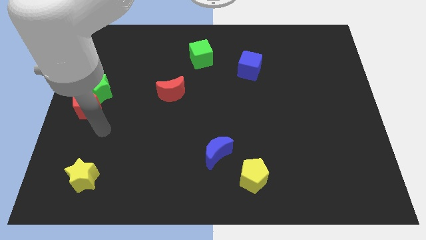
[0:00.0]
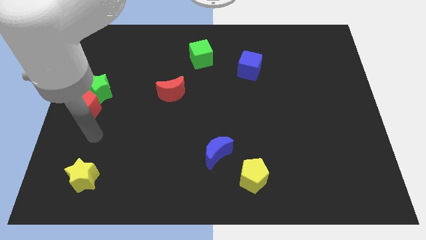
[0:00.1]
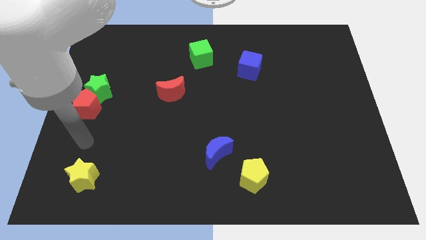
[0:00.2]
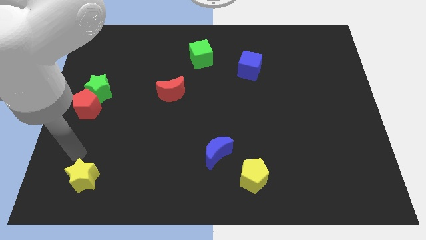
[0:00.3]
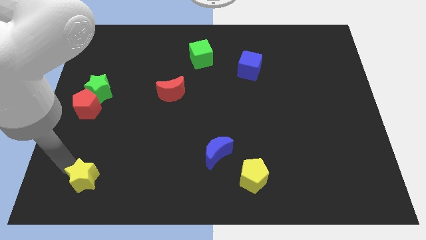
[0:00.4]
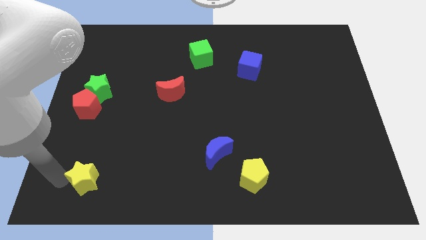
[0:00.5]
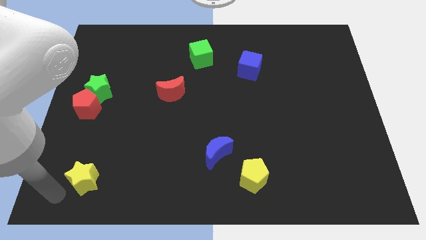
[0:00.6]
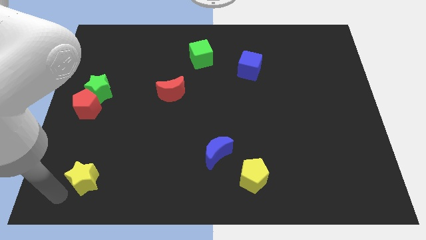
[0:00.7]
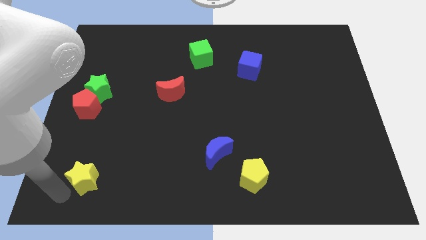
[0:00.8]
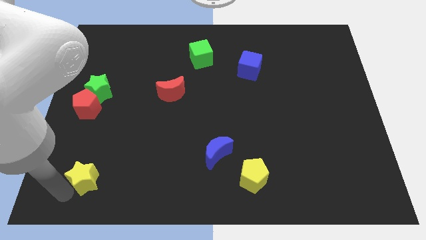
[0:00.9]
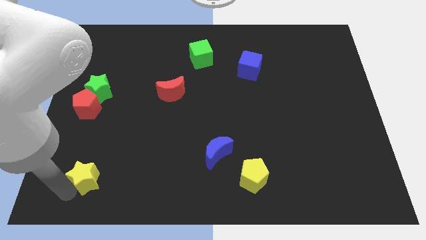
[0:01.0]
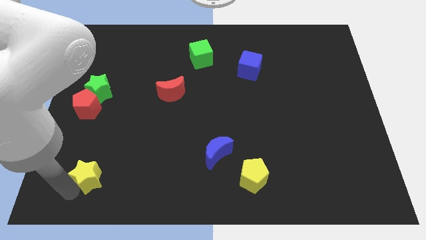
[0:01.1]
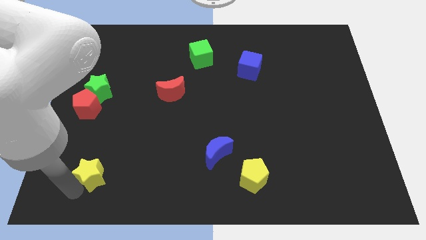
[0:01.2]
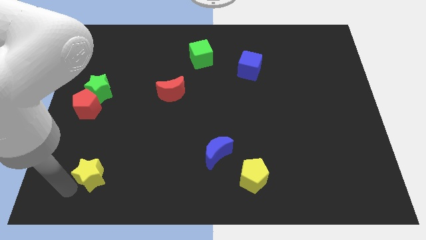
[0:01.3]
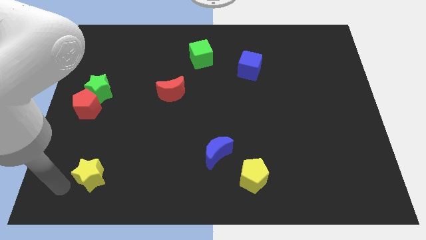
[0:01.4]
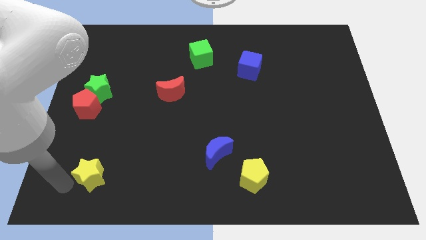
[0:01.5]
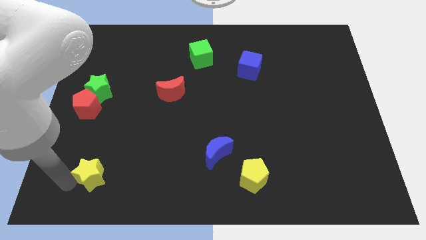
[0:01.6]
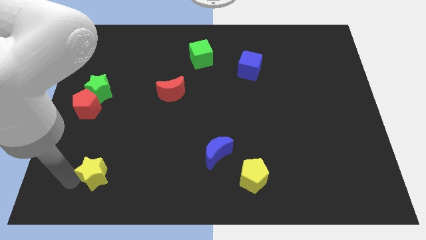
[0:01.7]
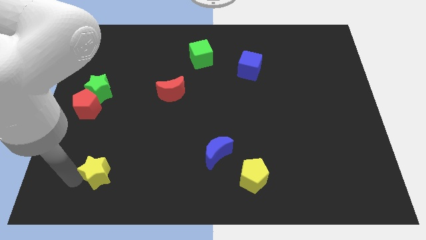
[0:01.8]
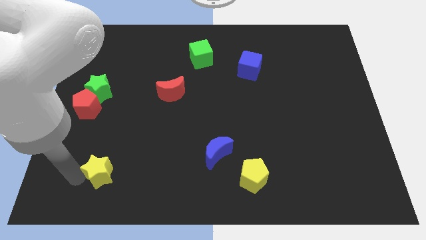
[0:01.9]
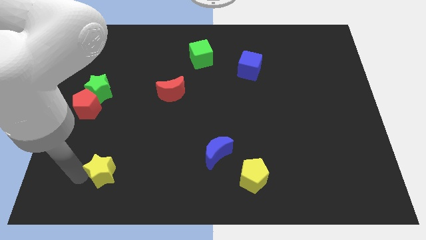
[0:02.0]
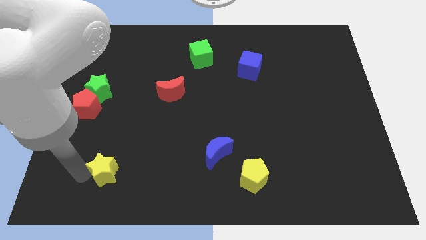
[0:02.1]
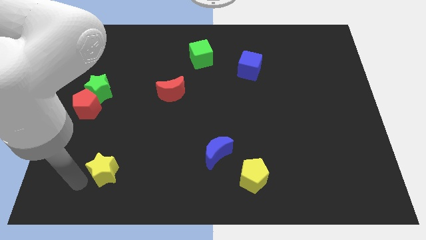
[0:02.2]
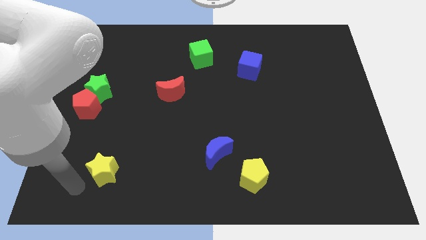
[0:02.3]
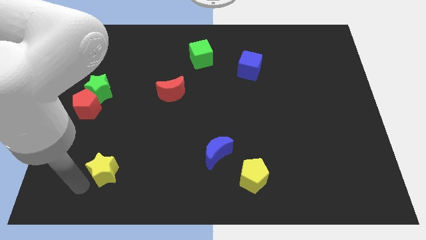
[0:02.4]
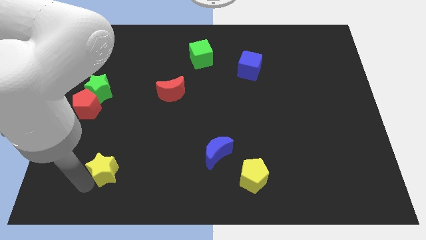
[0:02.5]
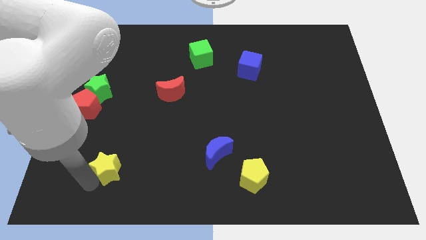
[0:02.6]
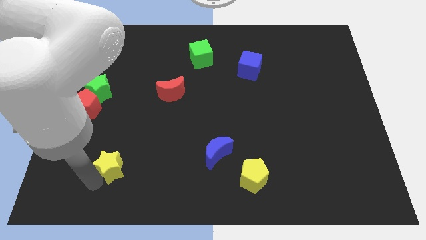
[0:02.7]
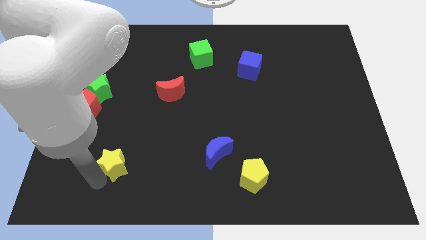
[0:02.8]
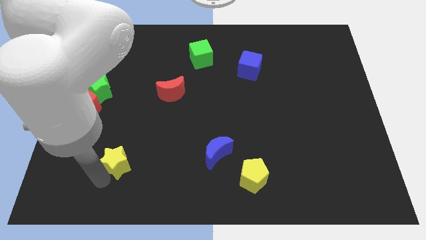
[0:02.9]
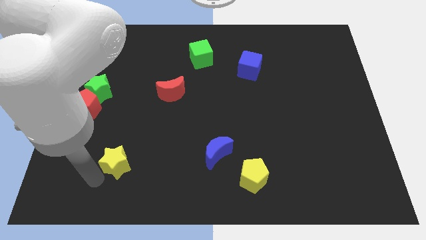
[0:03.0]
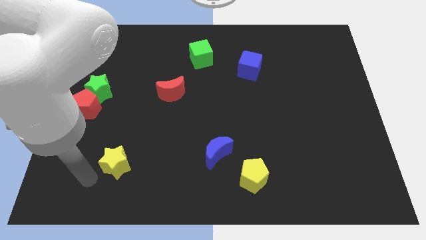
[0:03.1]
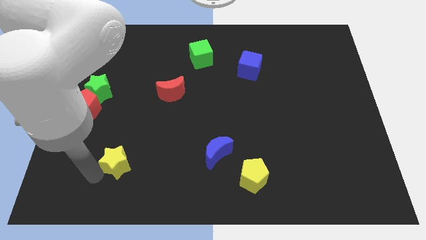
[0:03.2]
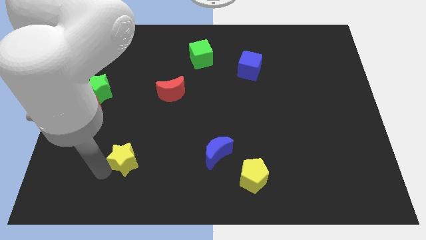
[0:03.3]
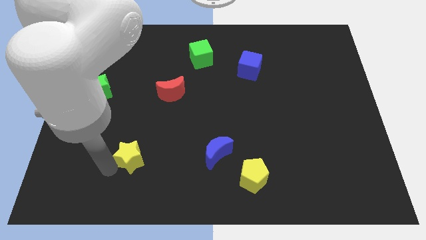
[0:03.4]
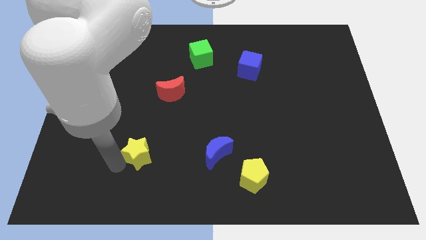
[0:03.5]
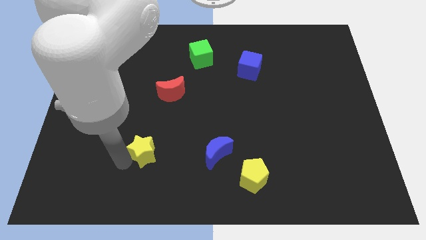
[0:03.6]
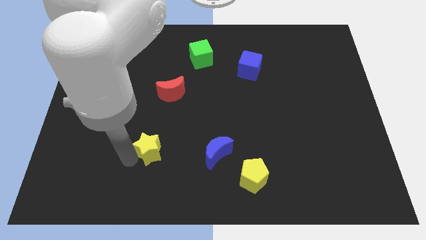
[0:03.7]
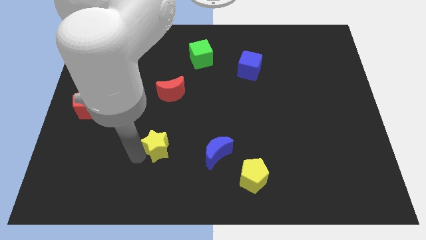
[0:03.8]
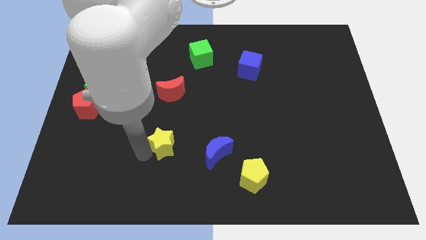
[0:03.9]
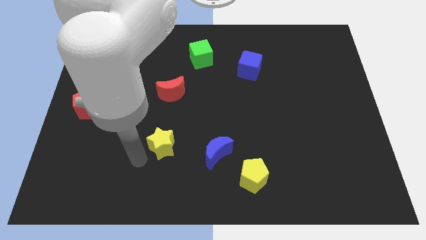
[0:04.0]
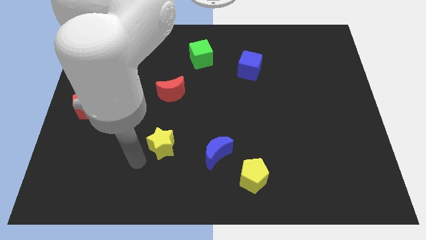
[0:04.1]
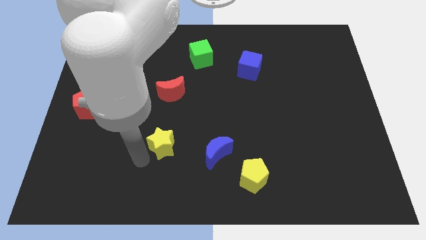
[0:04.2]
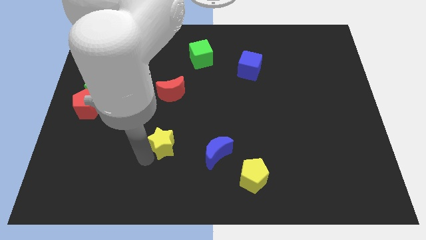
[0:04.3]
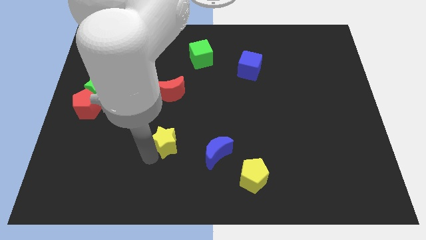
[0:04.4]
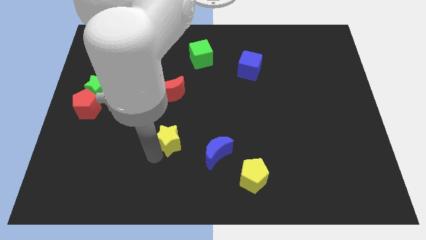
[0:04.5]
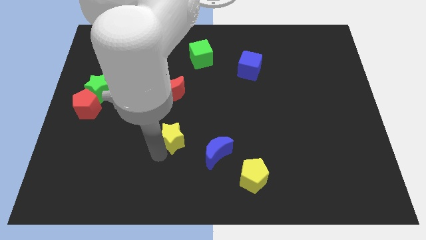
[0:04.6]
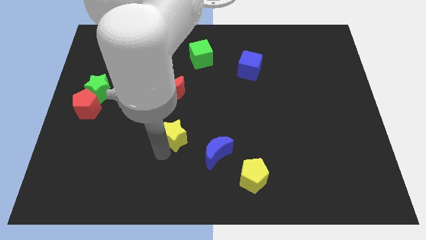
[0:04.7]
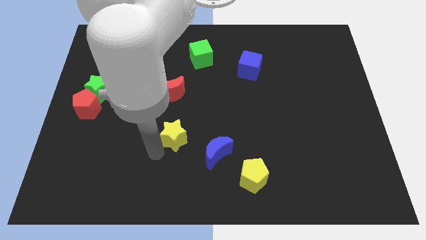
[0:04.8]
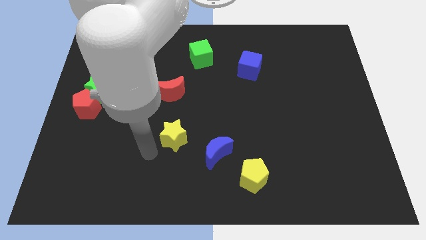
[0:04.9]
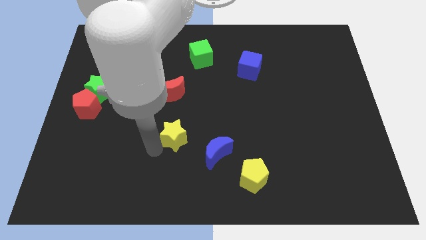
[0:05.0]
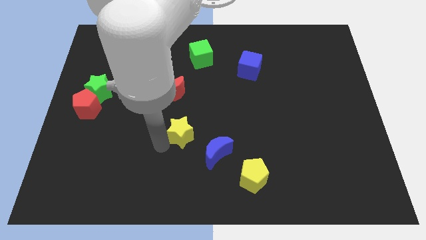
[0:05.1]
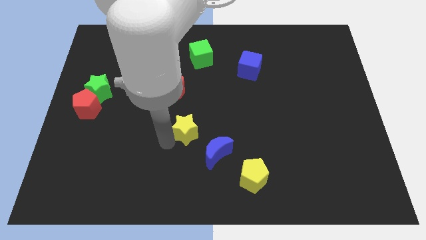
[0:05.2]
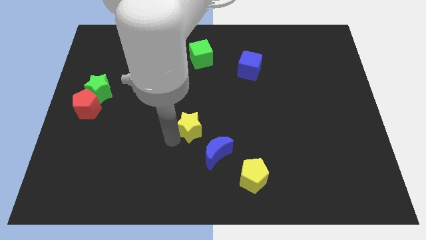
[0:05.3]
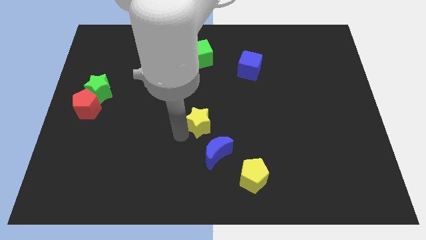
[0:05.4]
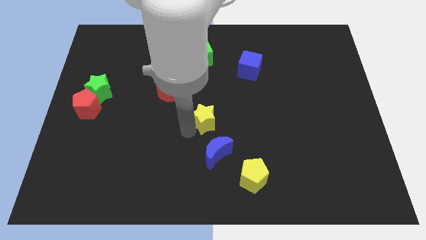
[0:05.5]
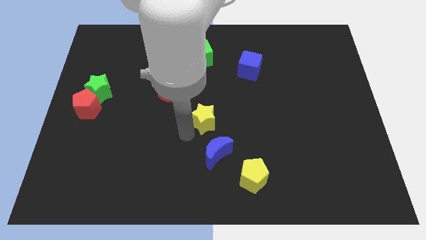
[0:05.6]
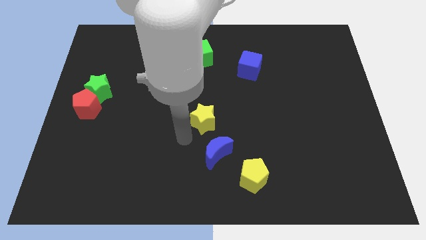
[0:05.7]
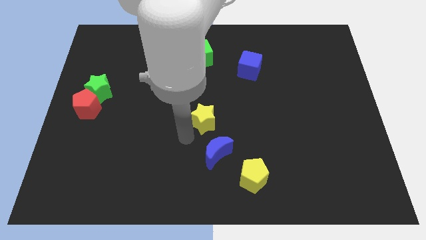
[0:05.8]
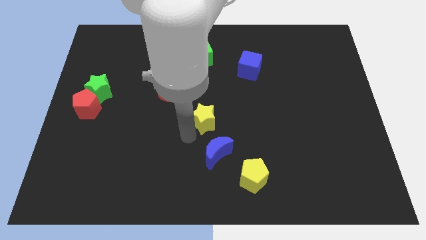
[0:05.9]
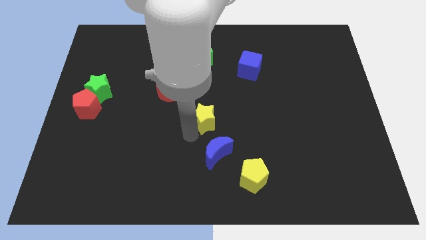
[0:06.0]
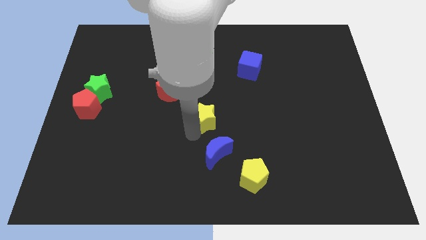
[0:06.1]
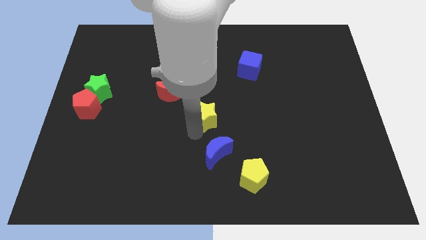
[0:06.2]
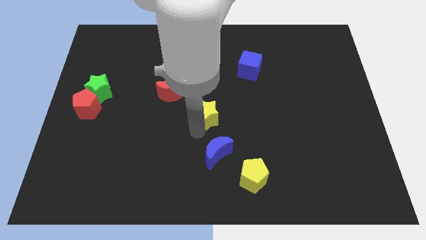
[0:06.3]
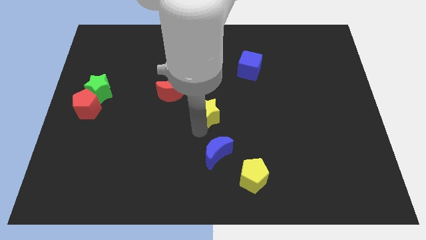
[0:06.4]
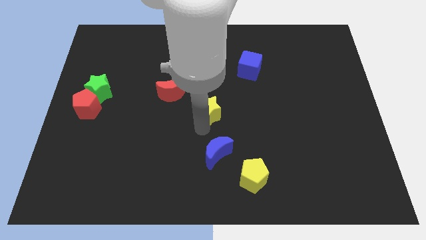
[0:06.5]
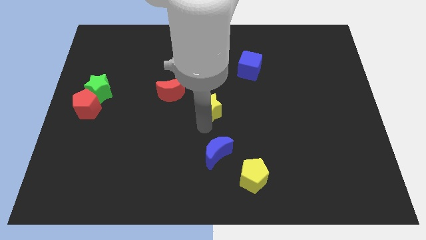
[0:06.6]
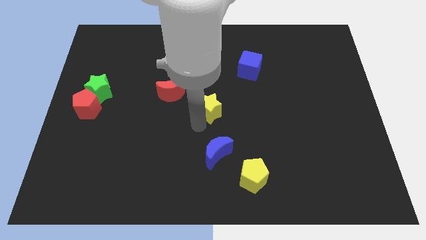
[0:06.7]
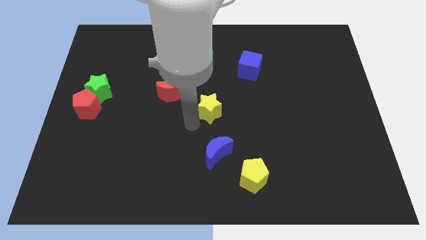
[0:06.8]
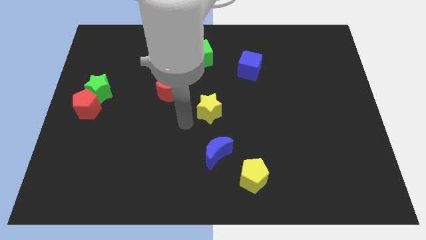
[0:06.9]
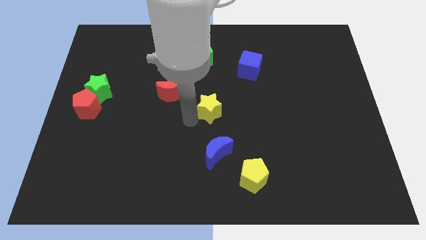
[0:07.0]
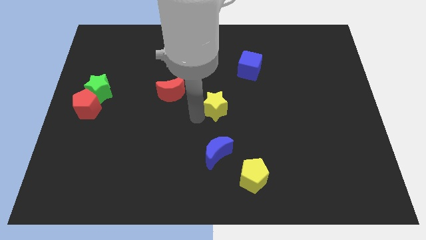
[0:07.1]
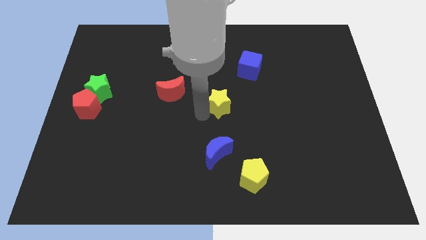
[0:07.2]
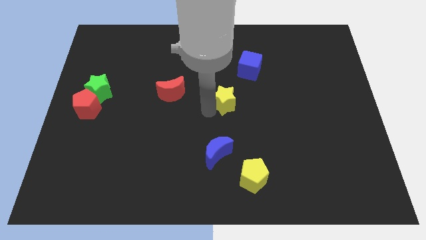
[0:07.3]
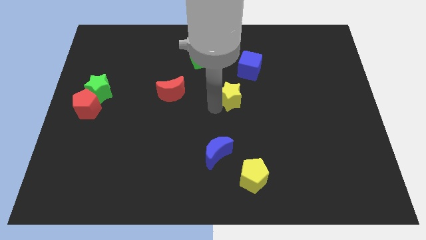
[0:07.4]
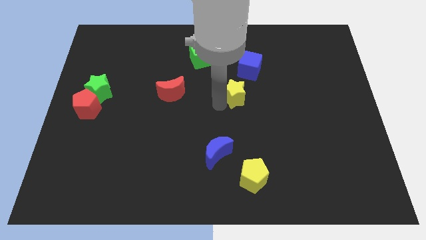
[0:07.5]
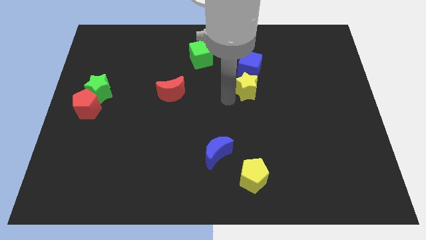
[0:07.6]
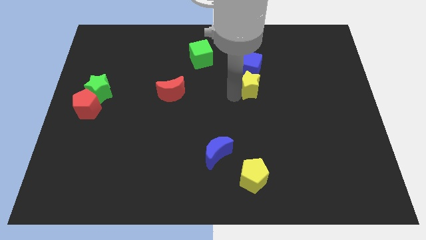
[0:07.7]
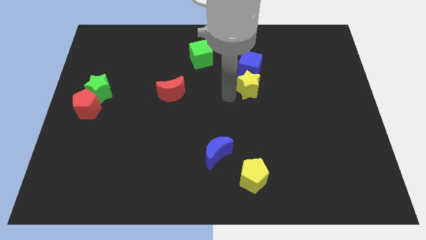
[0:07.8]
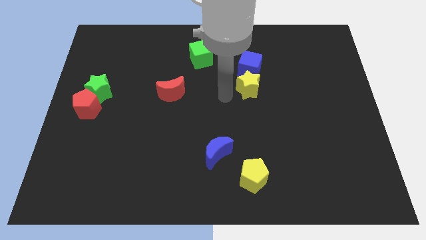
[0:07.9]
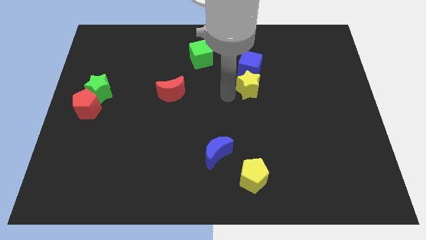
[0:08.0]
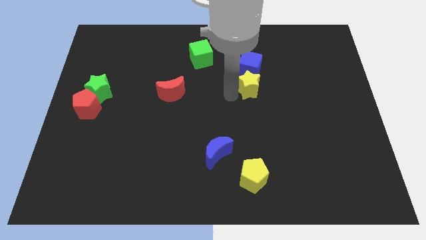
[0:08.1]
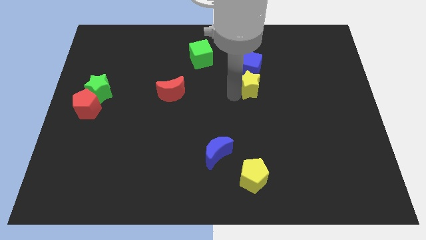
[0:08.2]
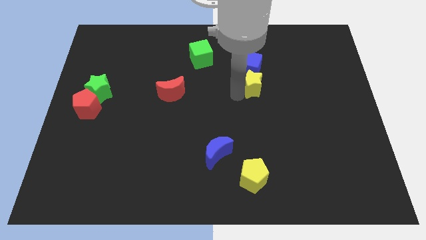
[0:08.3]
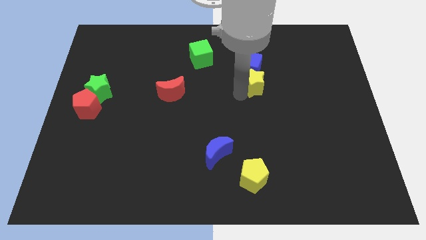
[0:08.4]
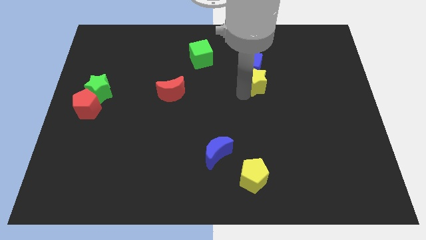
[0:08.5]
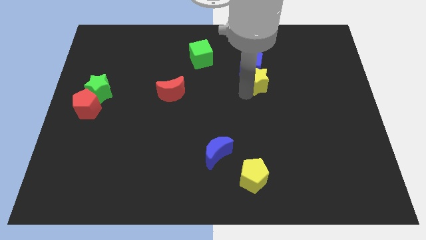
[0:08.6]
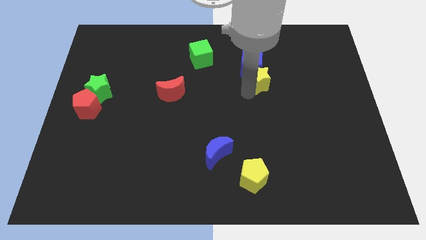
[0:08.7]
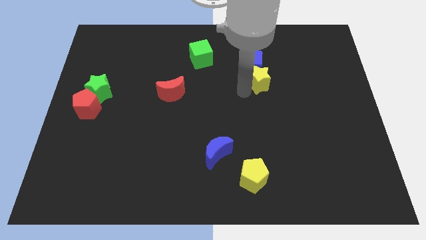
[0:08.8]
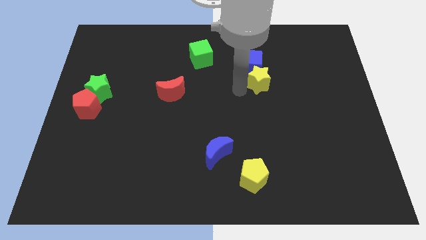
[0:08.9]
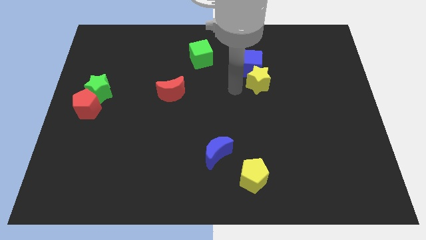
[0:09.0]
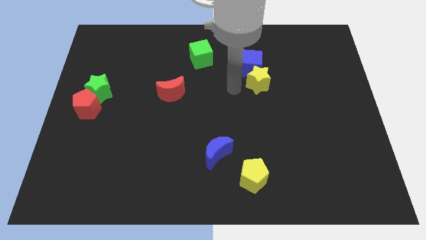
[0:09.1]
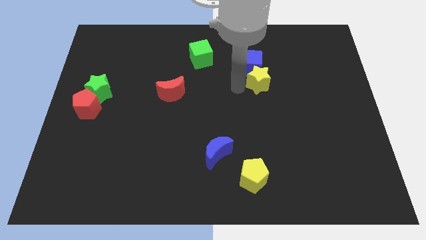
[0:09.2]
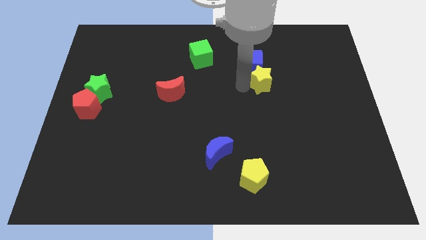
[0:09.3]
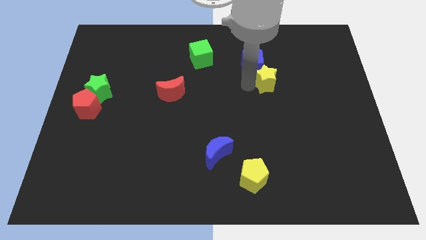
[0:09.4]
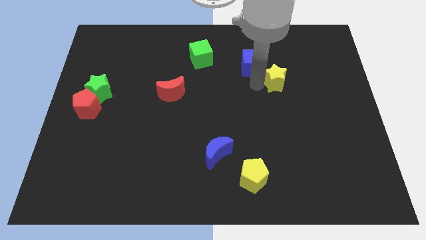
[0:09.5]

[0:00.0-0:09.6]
put the yellow star just right of the blue cube
